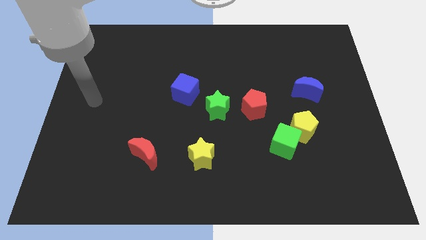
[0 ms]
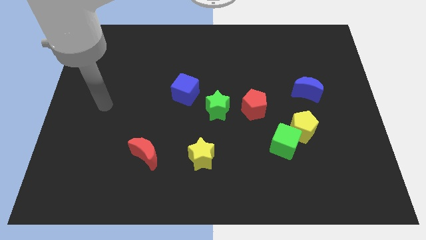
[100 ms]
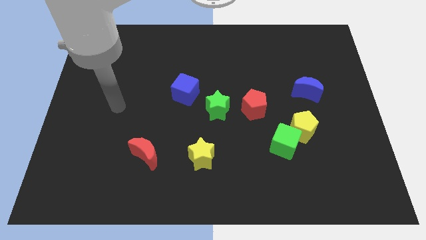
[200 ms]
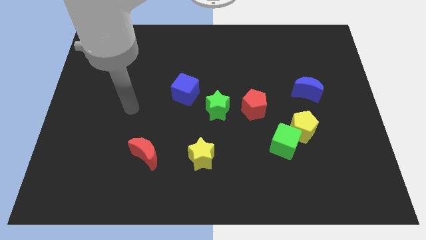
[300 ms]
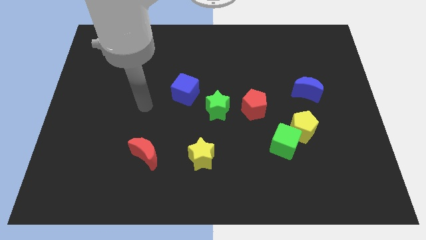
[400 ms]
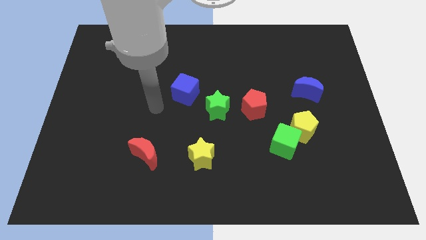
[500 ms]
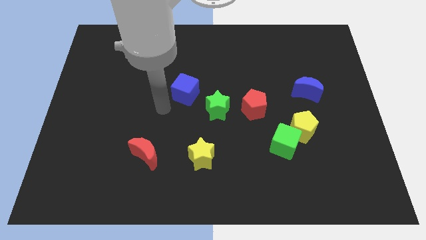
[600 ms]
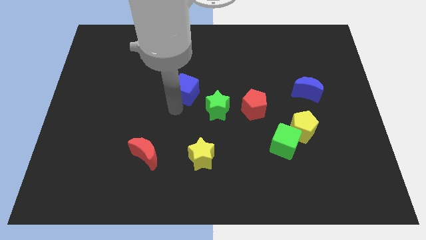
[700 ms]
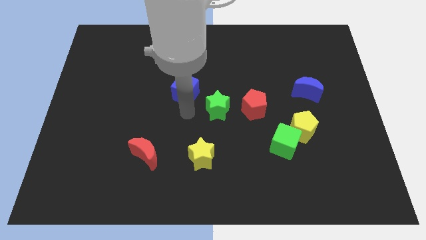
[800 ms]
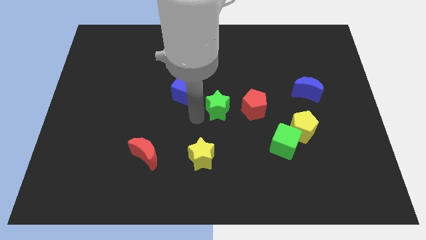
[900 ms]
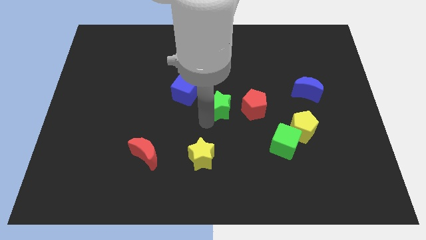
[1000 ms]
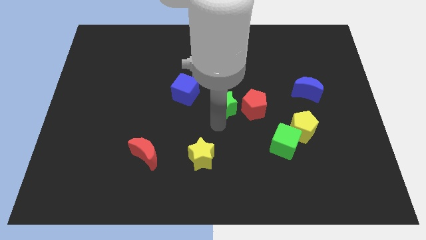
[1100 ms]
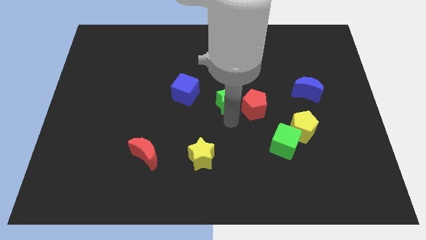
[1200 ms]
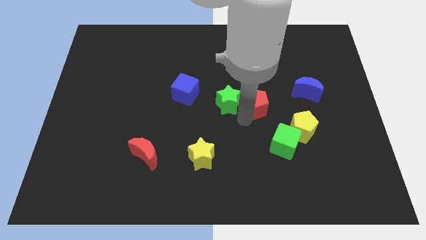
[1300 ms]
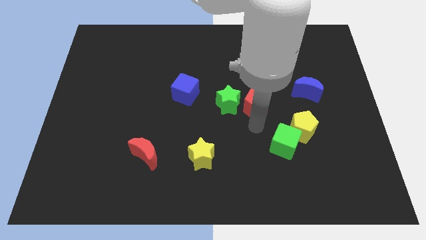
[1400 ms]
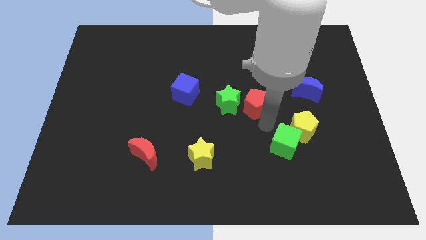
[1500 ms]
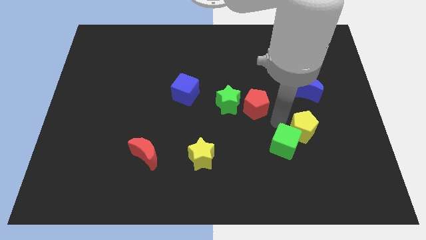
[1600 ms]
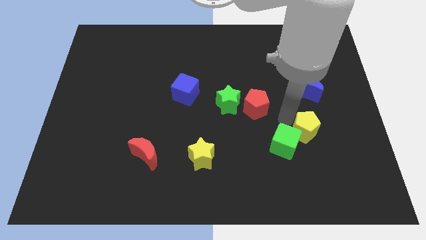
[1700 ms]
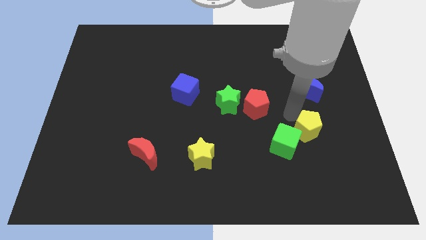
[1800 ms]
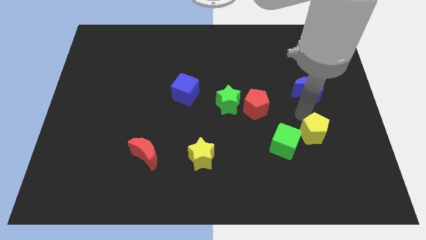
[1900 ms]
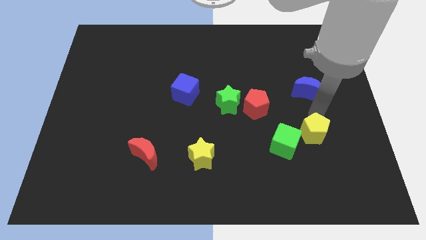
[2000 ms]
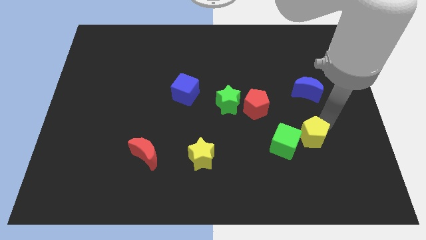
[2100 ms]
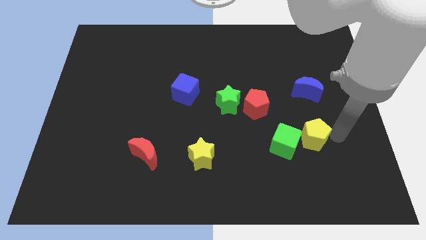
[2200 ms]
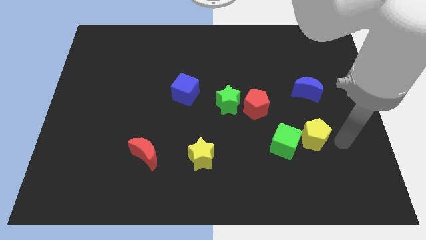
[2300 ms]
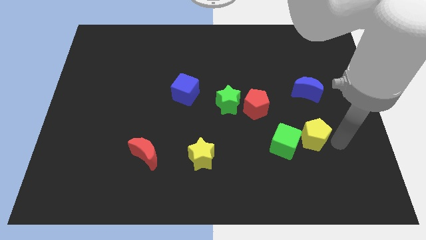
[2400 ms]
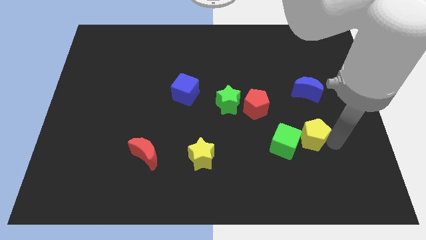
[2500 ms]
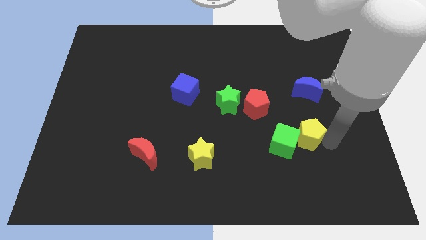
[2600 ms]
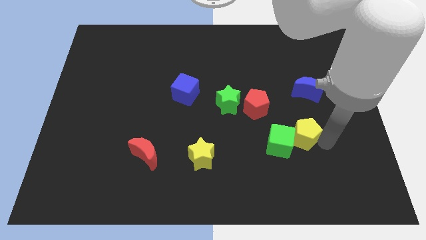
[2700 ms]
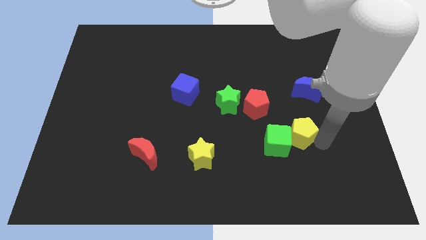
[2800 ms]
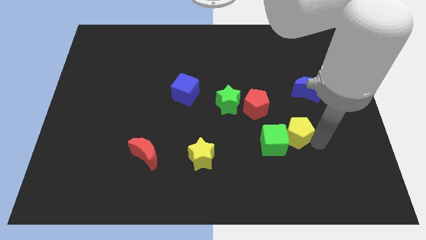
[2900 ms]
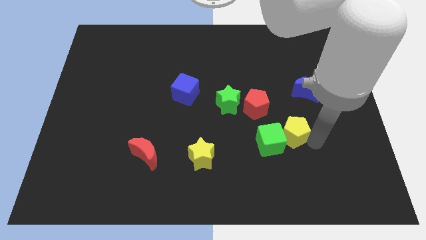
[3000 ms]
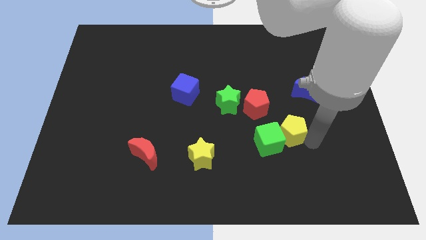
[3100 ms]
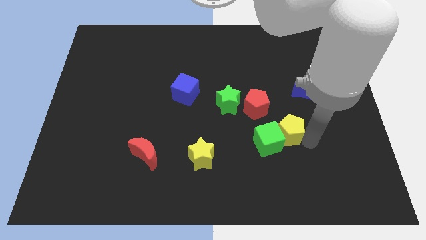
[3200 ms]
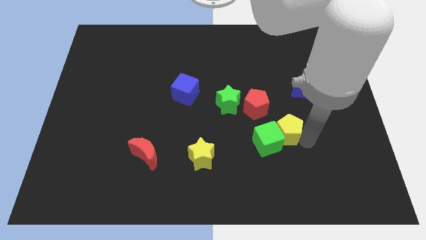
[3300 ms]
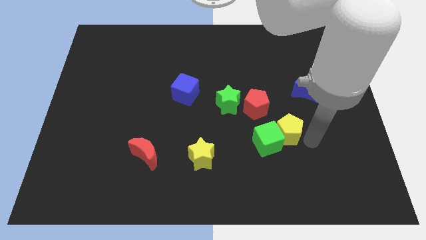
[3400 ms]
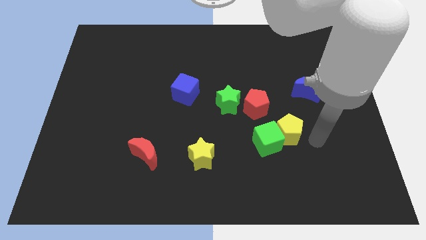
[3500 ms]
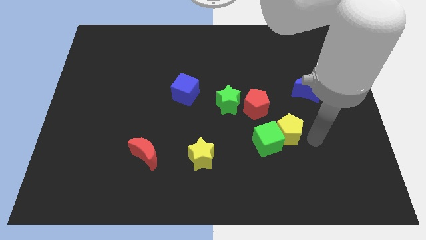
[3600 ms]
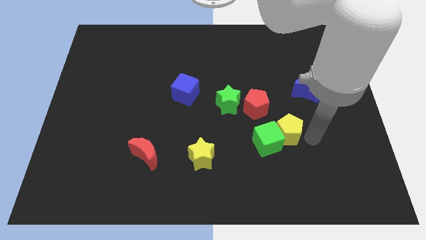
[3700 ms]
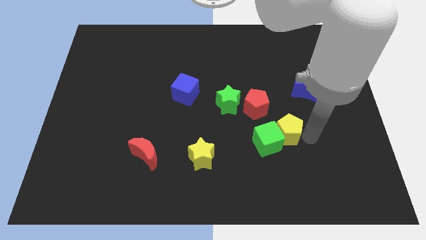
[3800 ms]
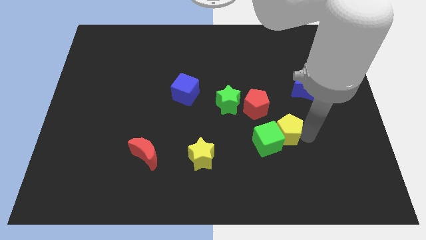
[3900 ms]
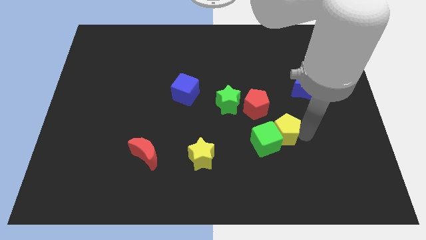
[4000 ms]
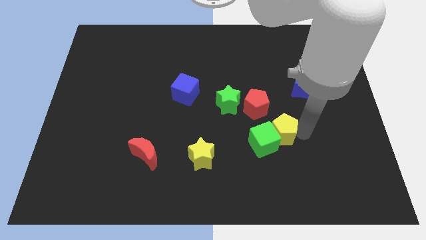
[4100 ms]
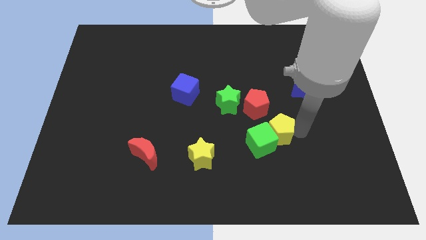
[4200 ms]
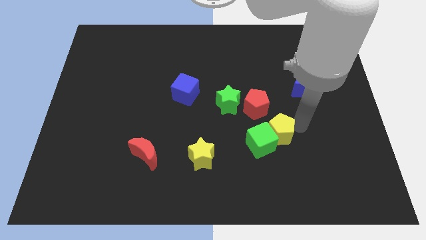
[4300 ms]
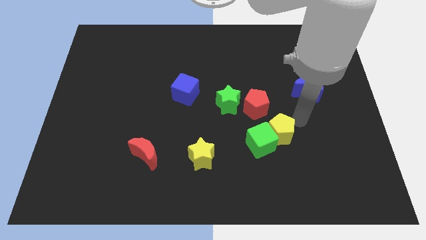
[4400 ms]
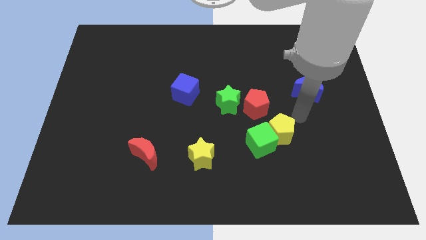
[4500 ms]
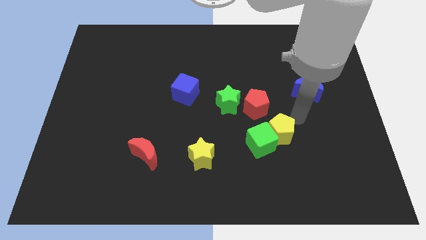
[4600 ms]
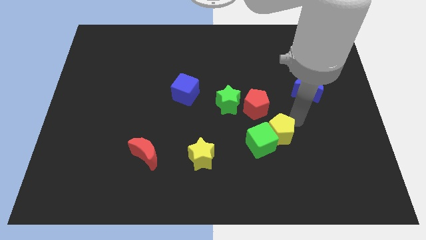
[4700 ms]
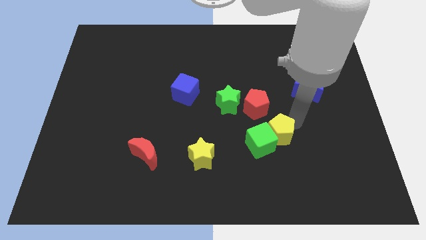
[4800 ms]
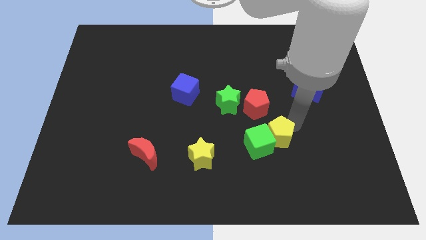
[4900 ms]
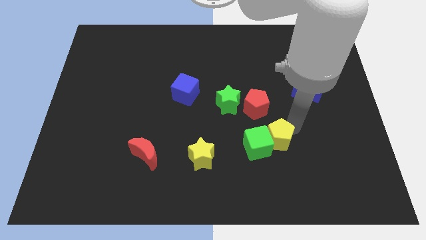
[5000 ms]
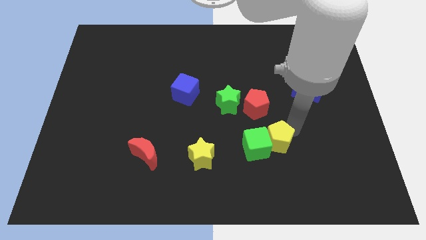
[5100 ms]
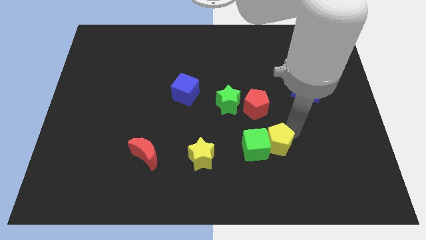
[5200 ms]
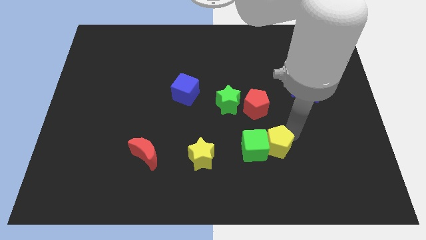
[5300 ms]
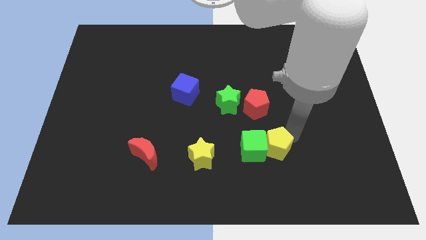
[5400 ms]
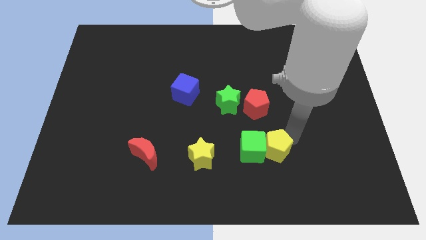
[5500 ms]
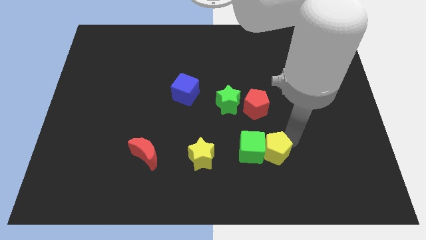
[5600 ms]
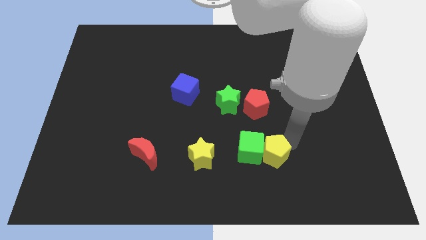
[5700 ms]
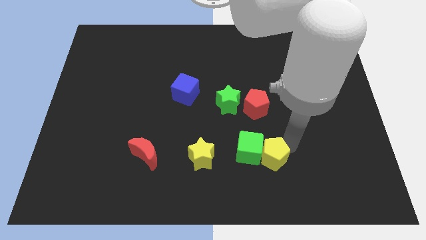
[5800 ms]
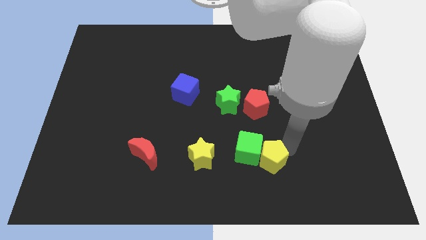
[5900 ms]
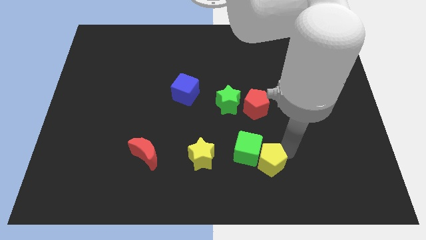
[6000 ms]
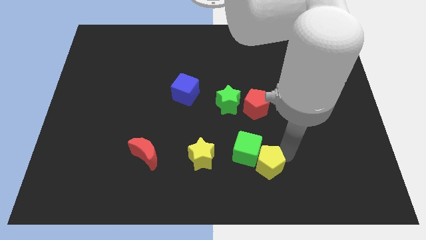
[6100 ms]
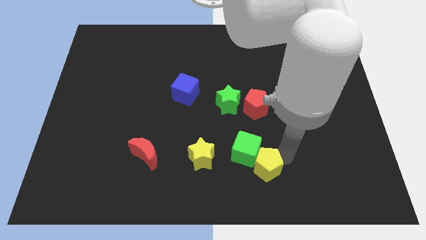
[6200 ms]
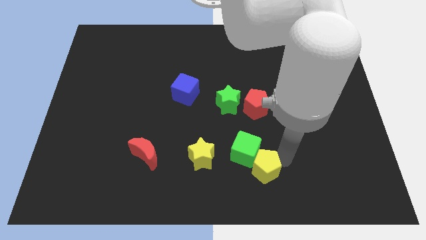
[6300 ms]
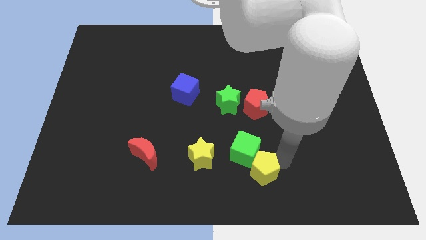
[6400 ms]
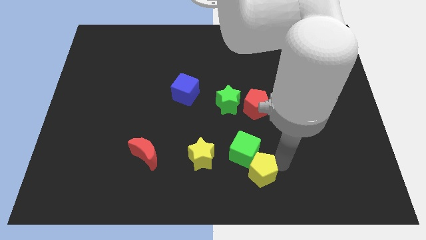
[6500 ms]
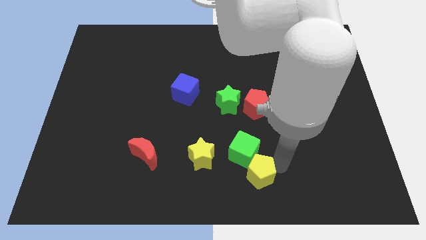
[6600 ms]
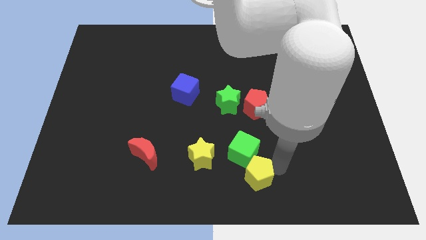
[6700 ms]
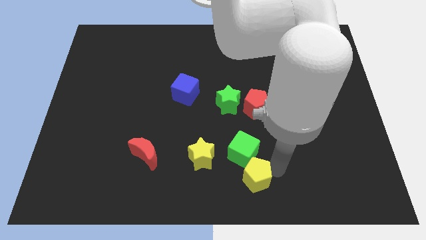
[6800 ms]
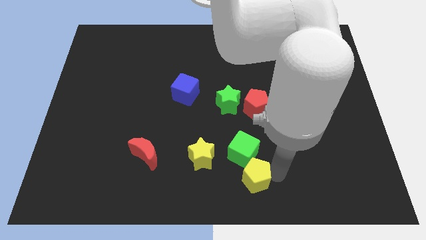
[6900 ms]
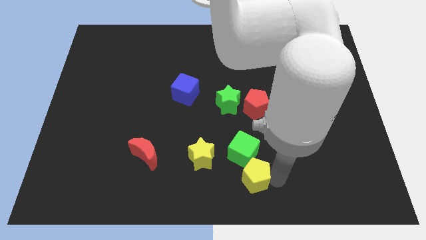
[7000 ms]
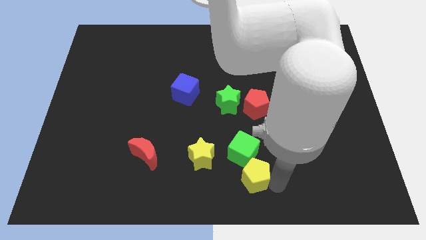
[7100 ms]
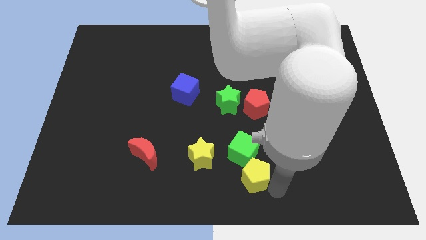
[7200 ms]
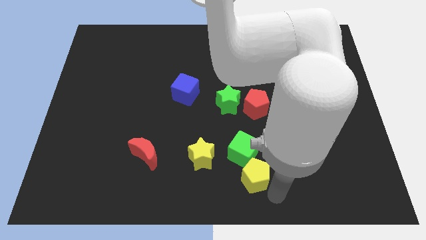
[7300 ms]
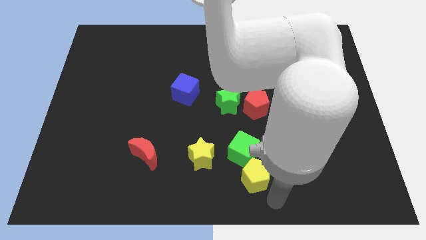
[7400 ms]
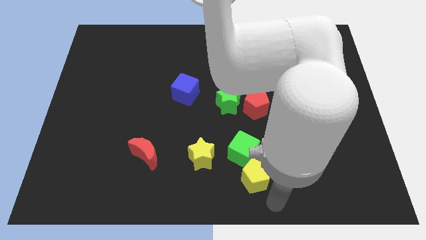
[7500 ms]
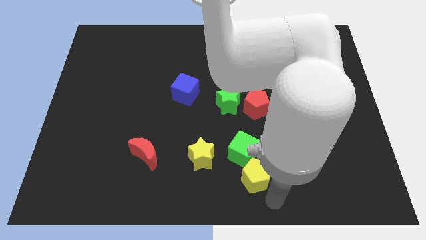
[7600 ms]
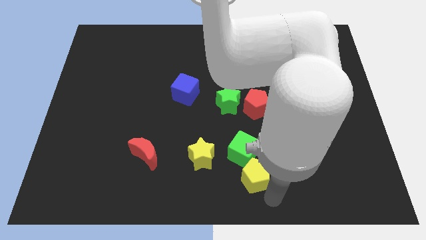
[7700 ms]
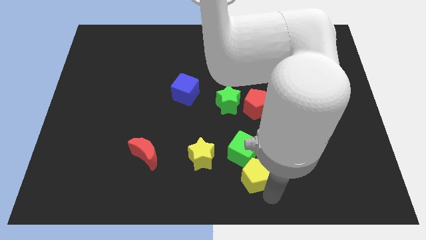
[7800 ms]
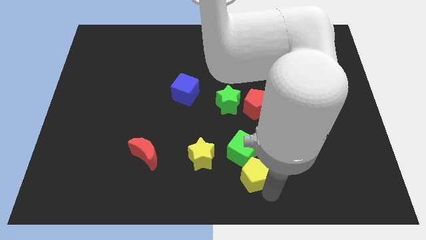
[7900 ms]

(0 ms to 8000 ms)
move the yellow pentagon to the bottom right of the yellow star
